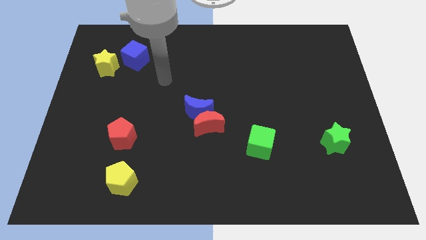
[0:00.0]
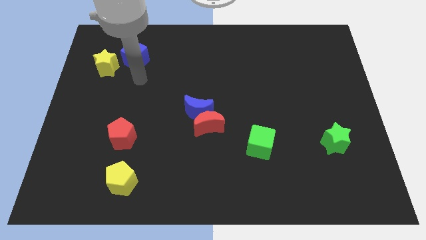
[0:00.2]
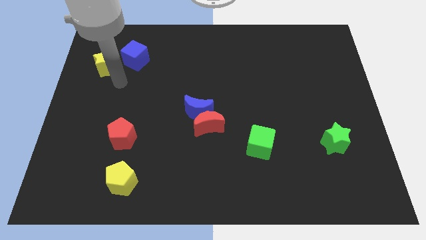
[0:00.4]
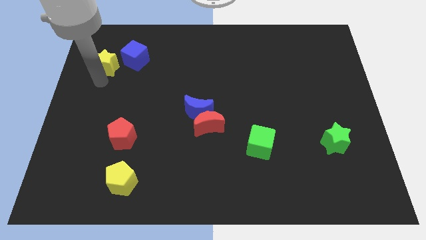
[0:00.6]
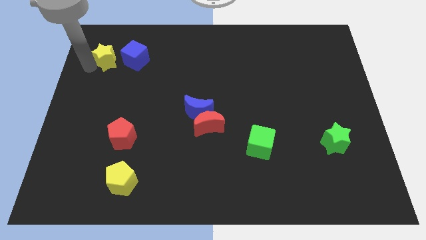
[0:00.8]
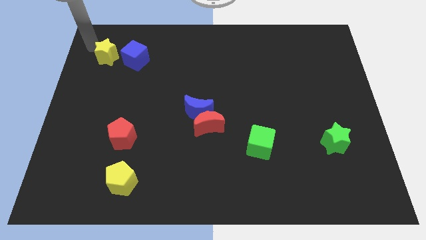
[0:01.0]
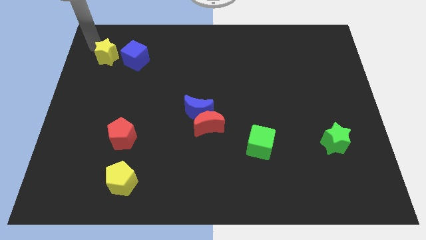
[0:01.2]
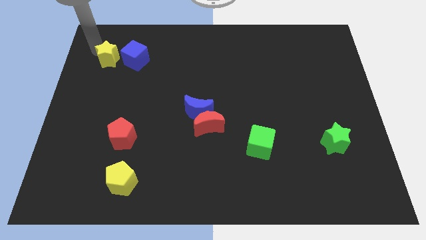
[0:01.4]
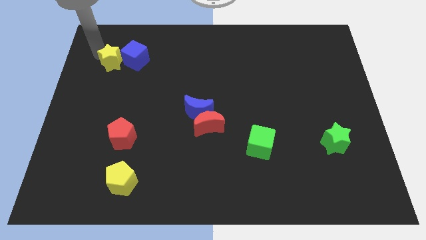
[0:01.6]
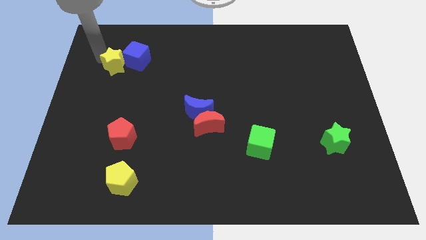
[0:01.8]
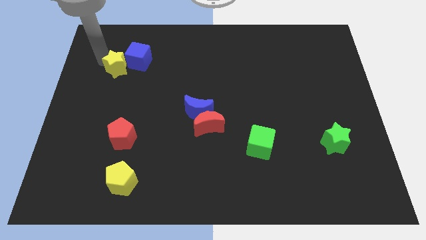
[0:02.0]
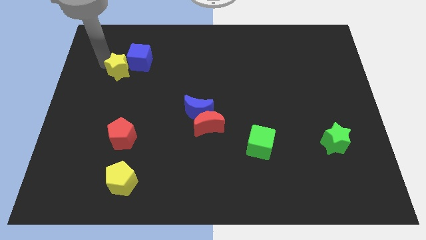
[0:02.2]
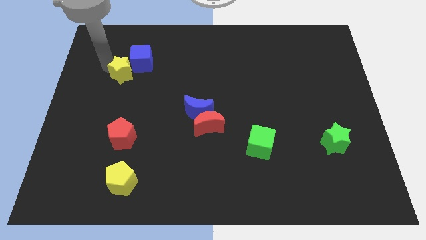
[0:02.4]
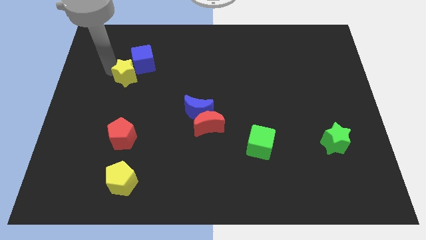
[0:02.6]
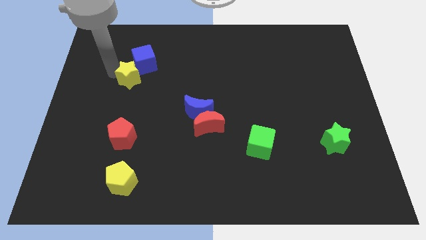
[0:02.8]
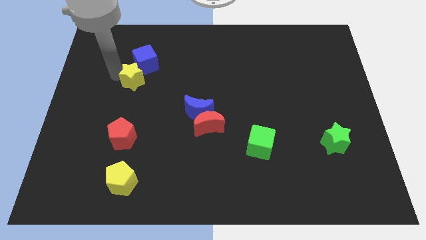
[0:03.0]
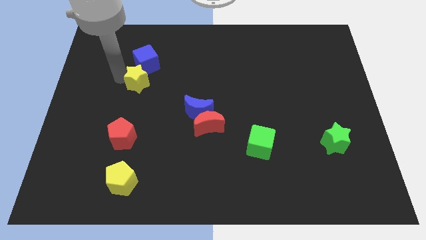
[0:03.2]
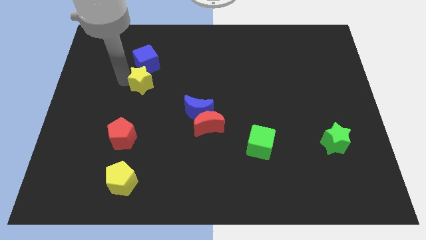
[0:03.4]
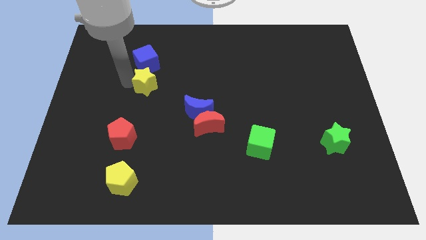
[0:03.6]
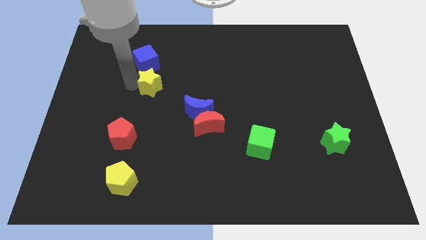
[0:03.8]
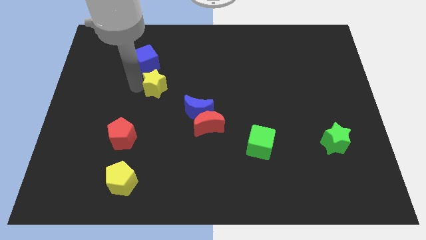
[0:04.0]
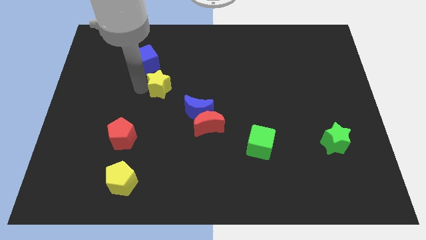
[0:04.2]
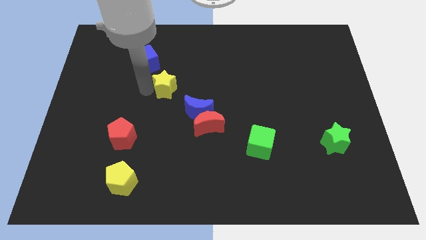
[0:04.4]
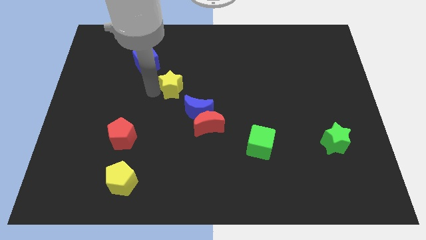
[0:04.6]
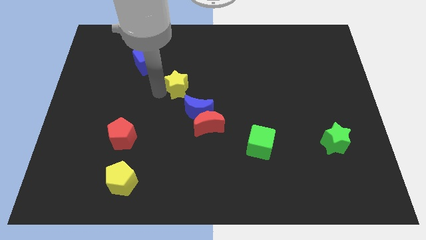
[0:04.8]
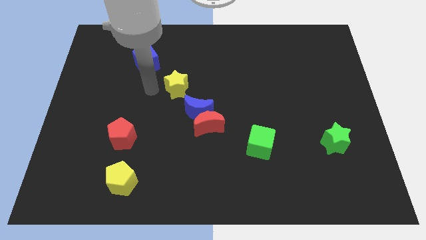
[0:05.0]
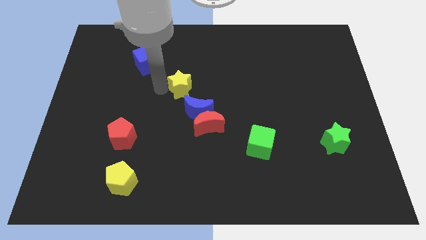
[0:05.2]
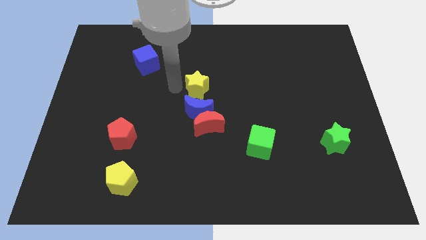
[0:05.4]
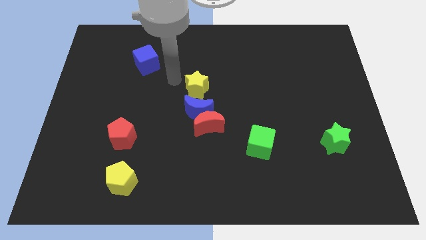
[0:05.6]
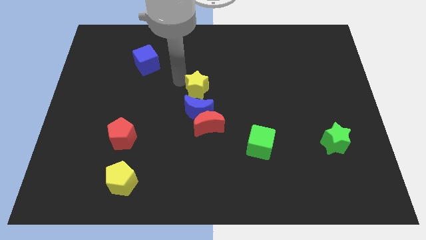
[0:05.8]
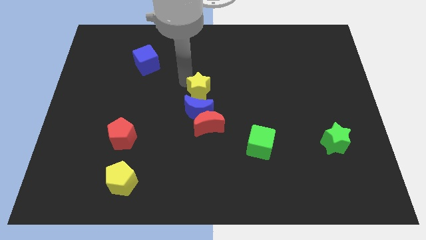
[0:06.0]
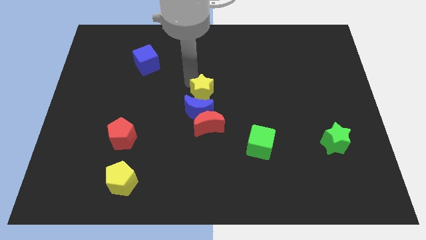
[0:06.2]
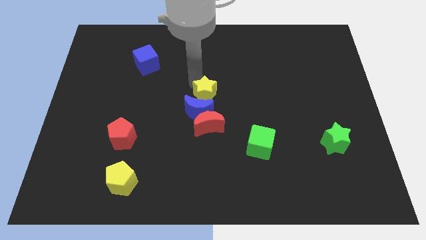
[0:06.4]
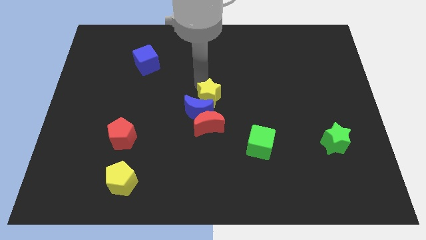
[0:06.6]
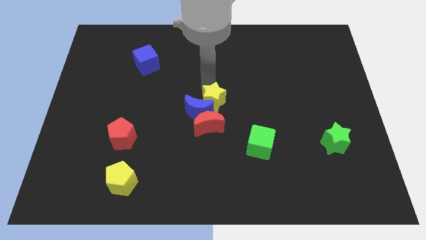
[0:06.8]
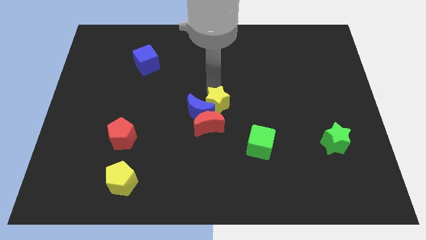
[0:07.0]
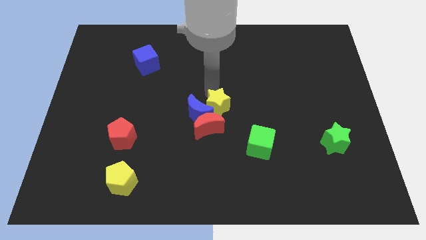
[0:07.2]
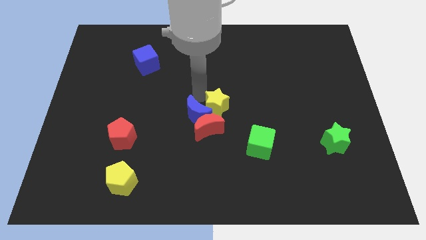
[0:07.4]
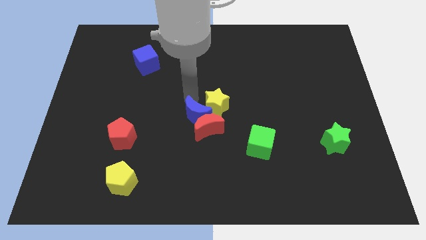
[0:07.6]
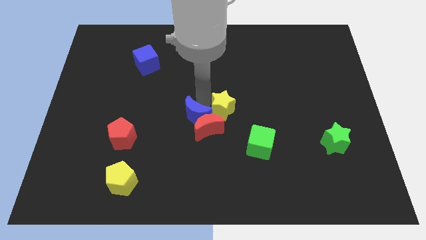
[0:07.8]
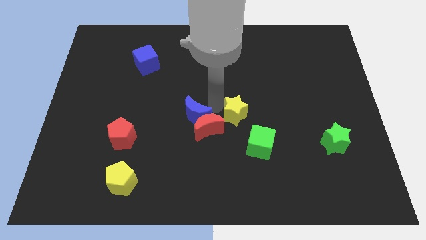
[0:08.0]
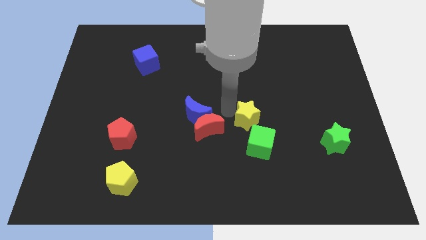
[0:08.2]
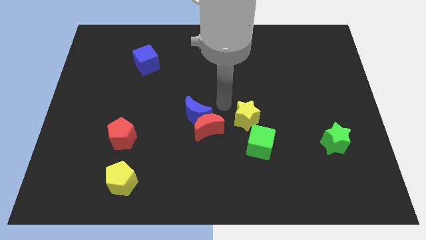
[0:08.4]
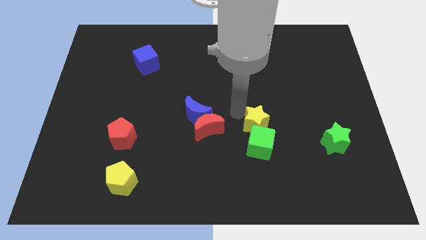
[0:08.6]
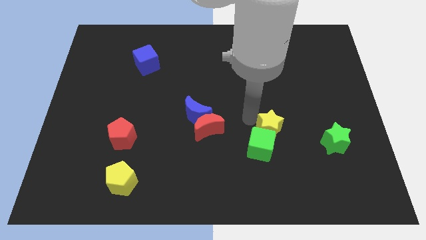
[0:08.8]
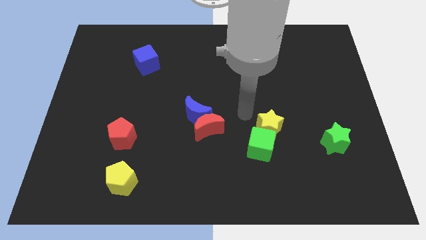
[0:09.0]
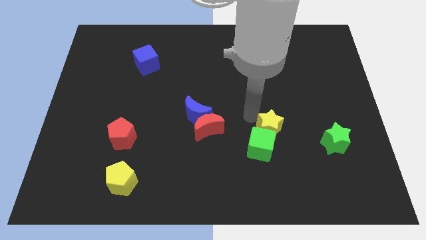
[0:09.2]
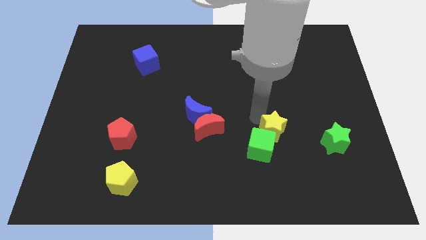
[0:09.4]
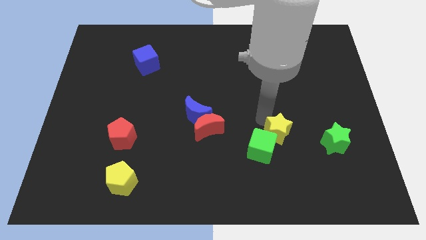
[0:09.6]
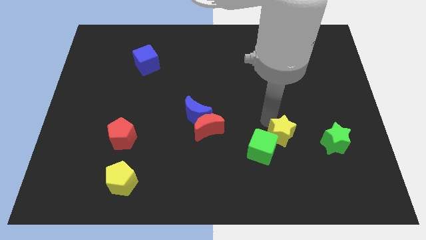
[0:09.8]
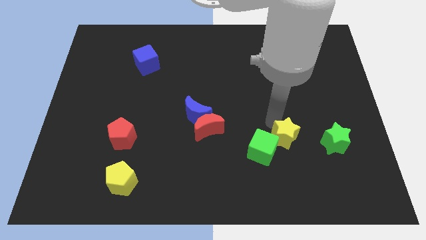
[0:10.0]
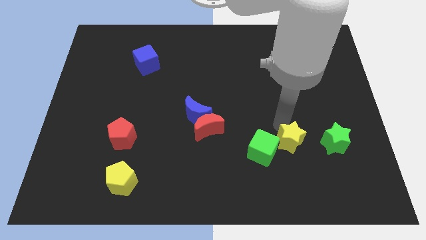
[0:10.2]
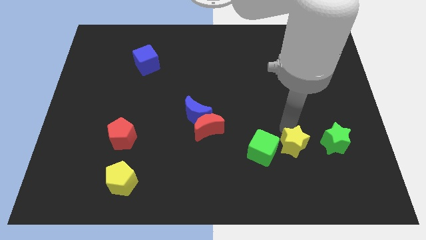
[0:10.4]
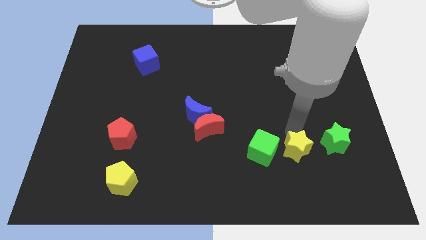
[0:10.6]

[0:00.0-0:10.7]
move the yellow star to the bottom left side of the green star

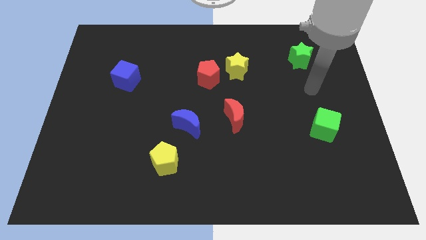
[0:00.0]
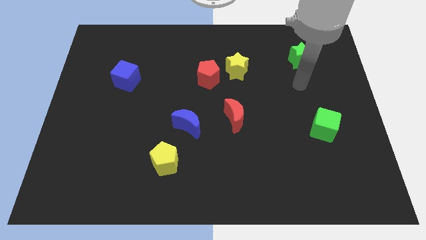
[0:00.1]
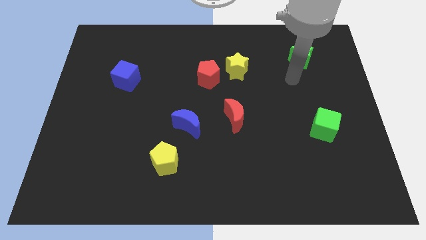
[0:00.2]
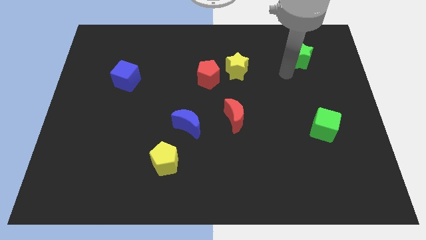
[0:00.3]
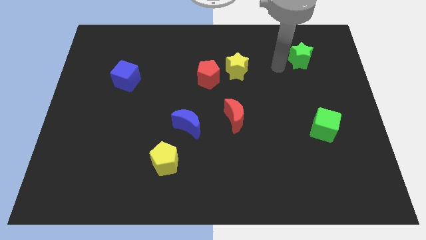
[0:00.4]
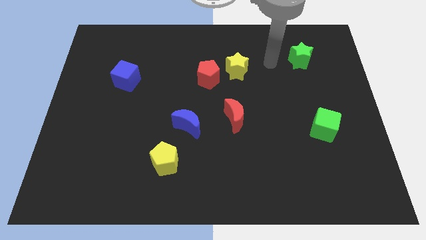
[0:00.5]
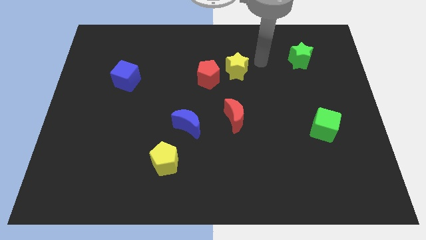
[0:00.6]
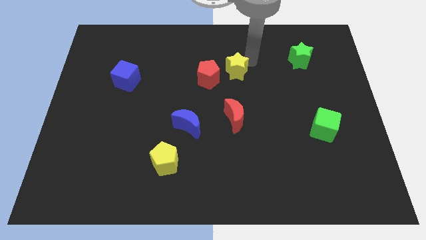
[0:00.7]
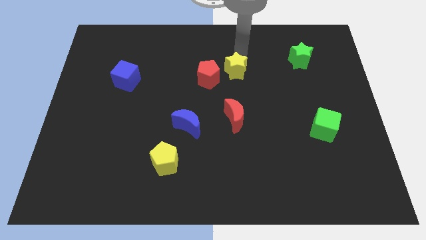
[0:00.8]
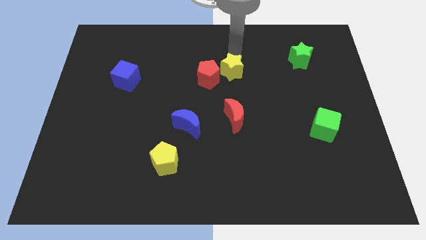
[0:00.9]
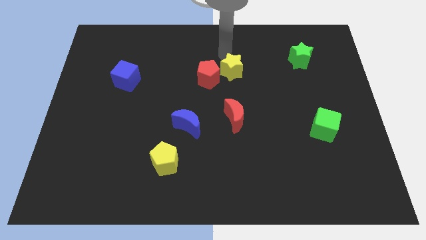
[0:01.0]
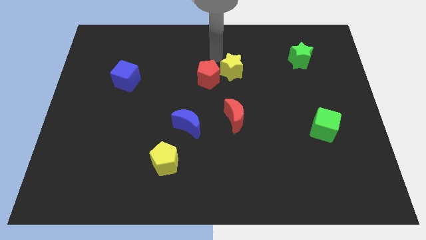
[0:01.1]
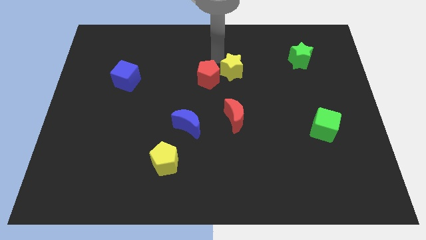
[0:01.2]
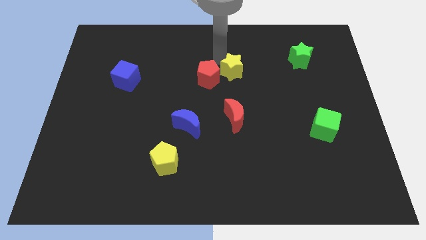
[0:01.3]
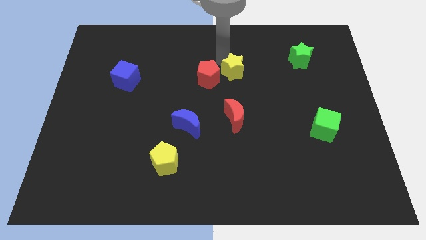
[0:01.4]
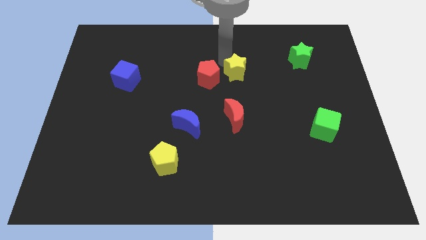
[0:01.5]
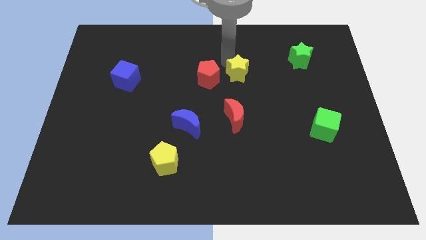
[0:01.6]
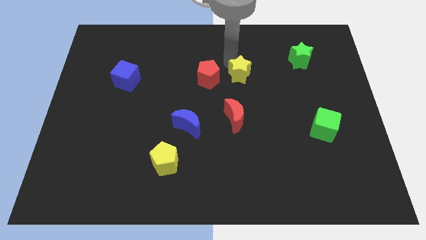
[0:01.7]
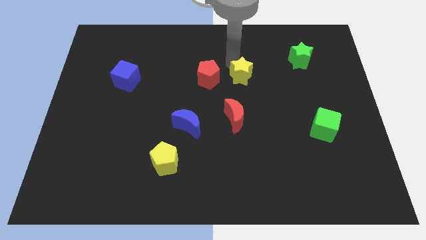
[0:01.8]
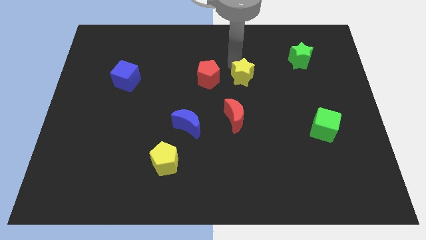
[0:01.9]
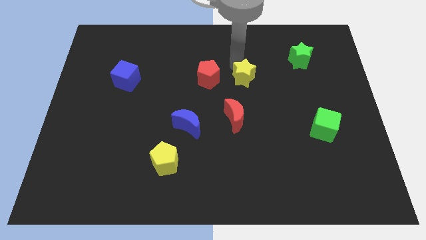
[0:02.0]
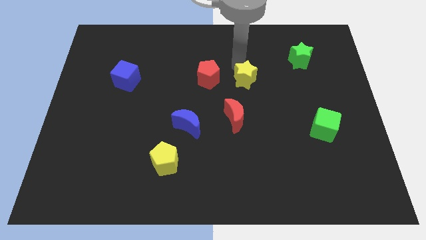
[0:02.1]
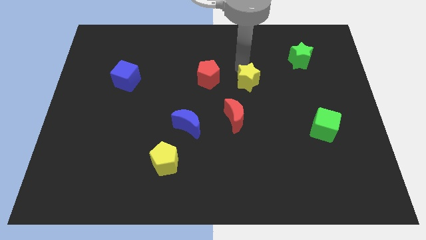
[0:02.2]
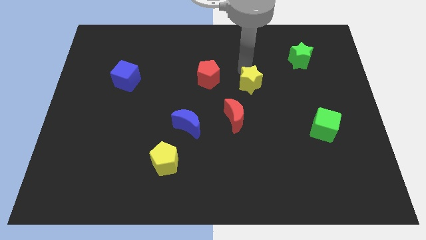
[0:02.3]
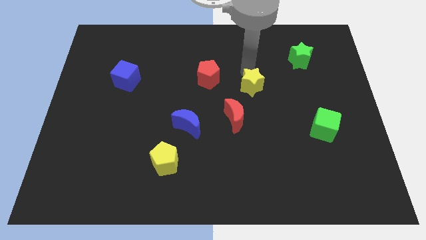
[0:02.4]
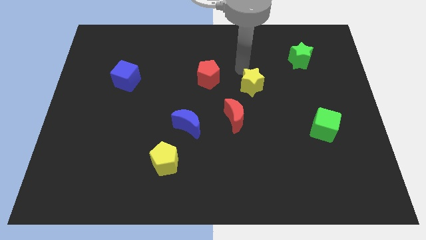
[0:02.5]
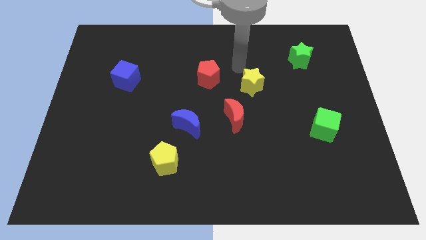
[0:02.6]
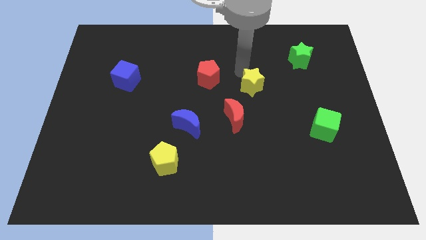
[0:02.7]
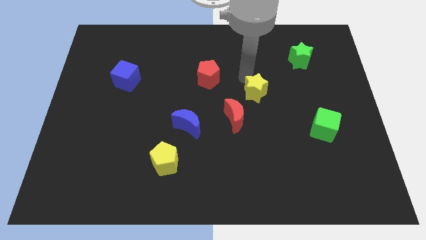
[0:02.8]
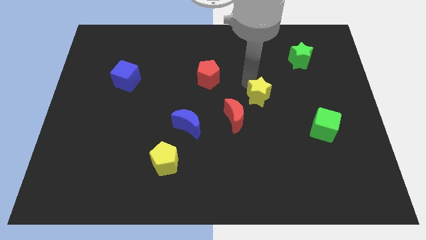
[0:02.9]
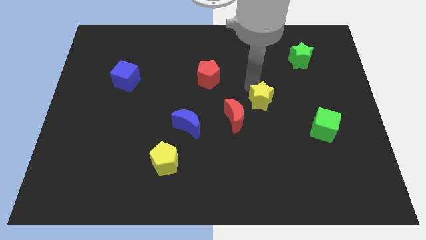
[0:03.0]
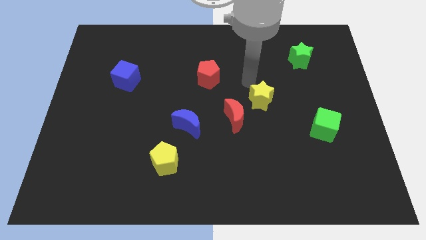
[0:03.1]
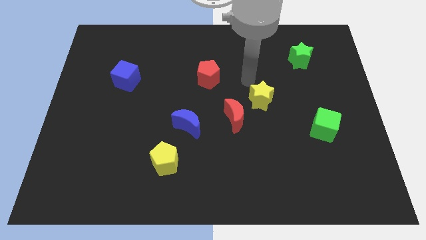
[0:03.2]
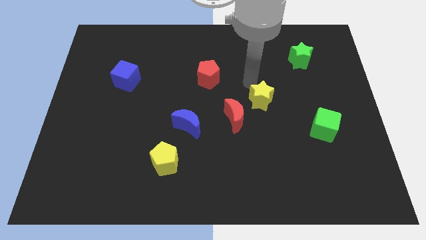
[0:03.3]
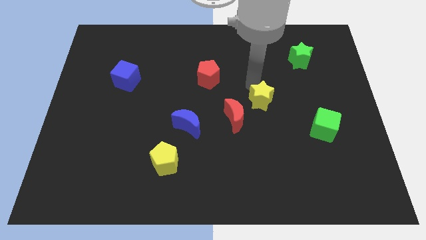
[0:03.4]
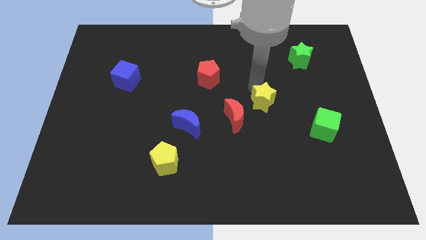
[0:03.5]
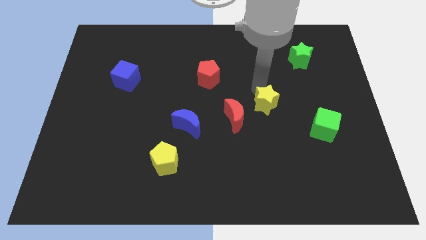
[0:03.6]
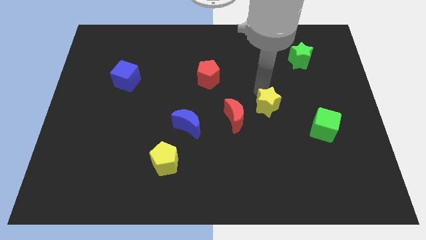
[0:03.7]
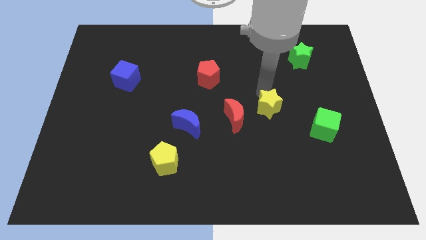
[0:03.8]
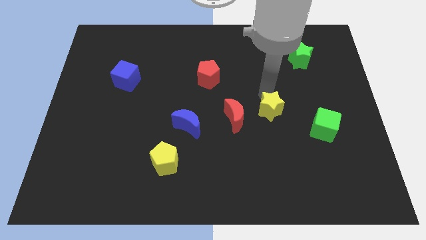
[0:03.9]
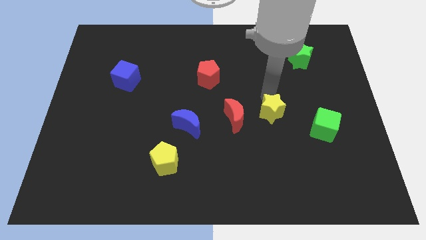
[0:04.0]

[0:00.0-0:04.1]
slide the yellow star left of the green cube
